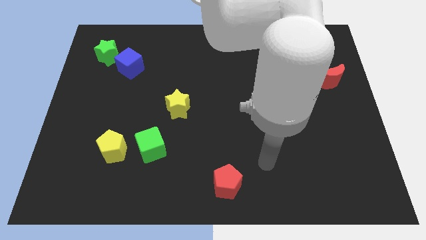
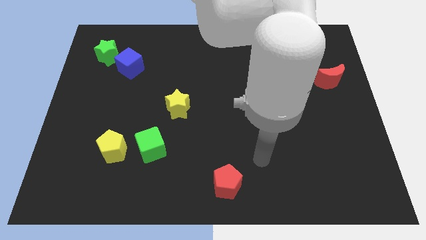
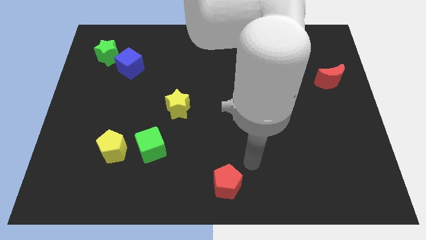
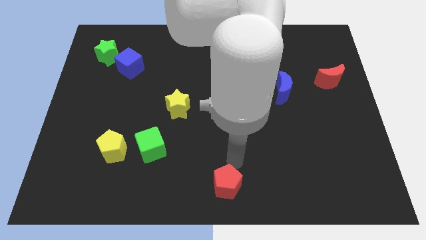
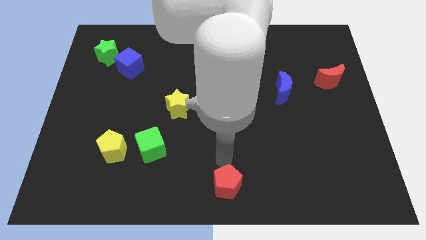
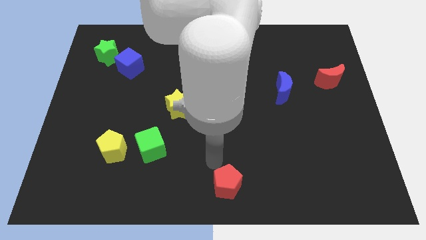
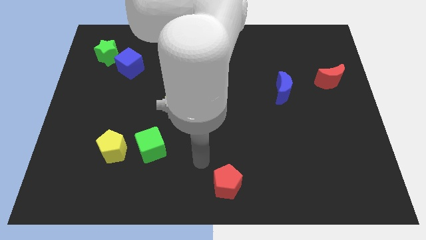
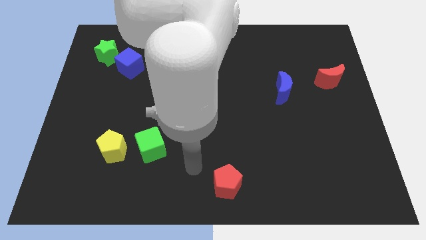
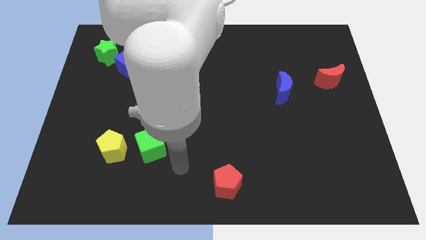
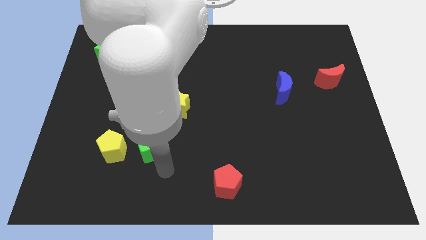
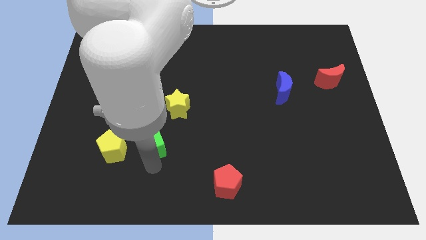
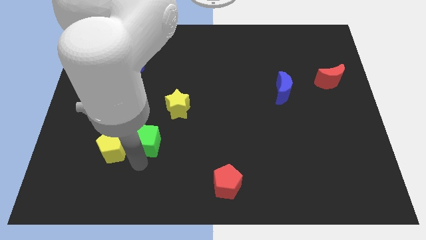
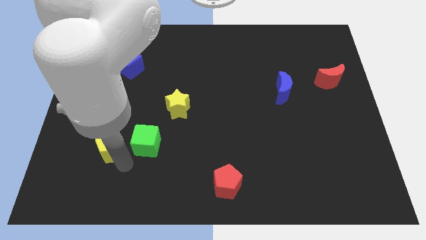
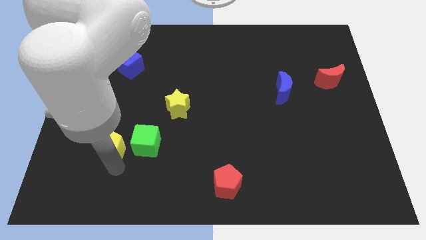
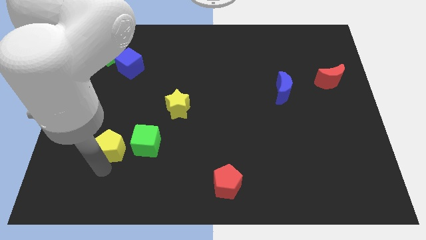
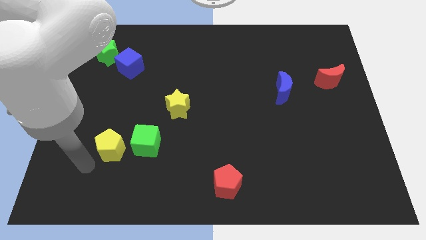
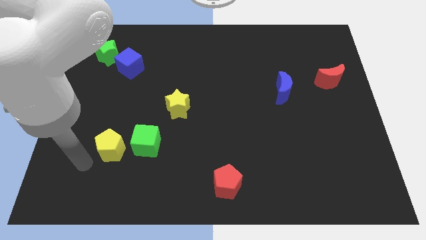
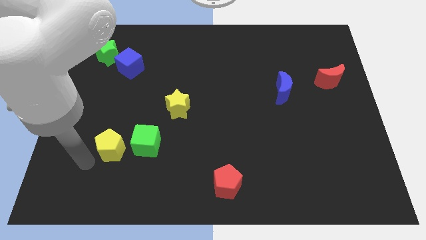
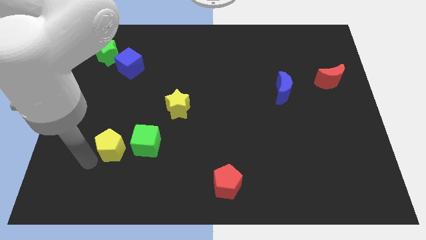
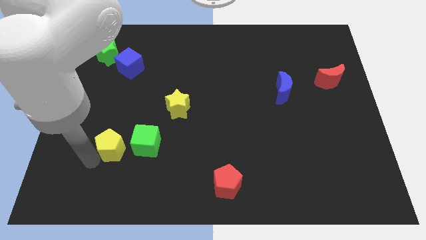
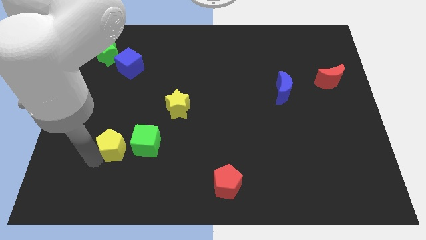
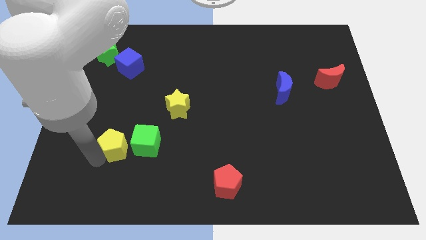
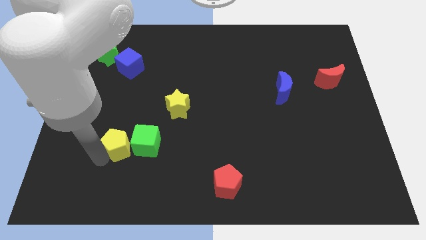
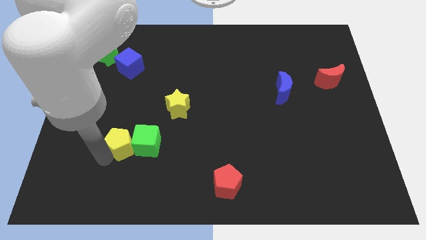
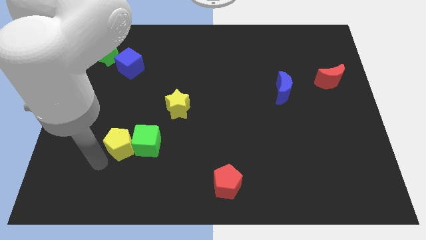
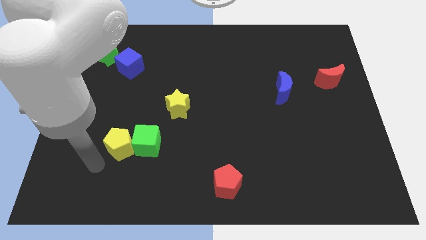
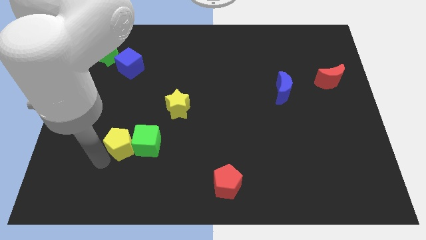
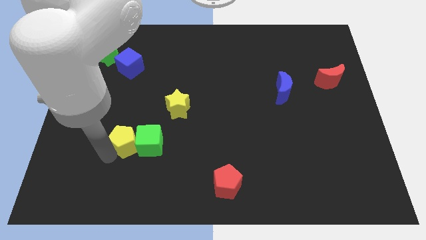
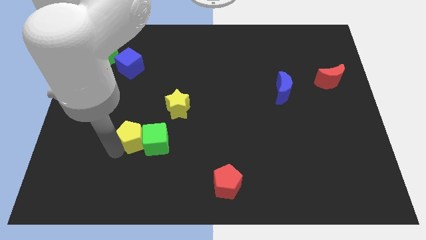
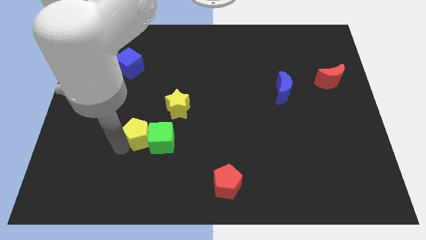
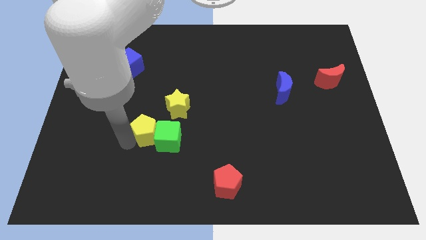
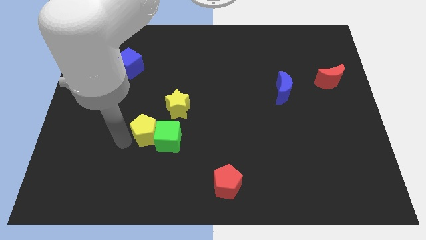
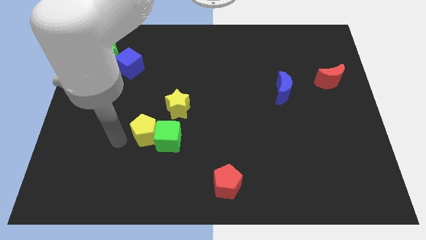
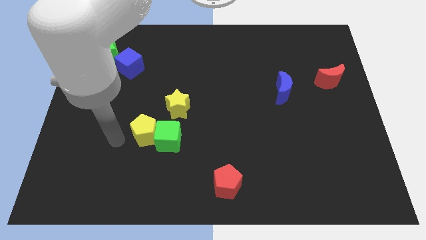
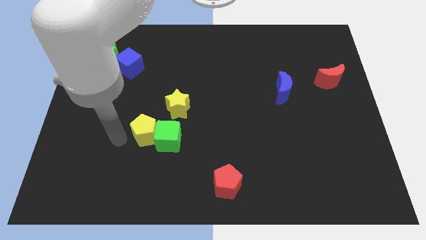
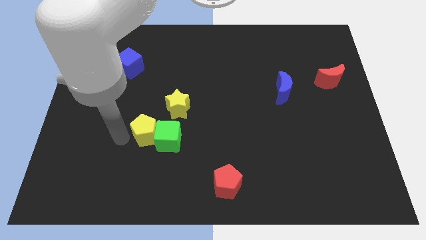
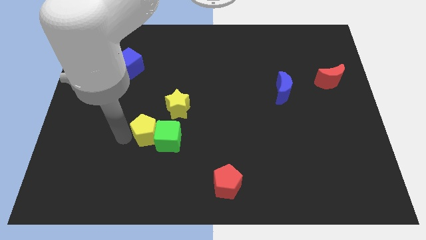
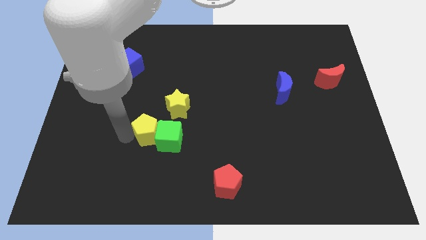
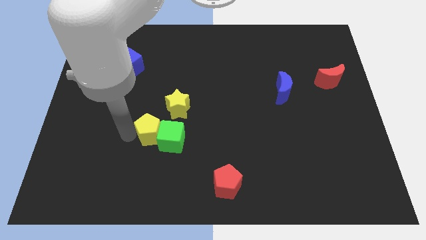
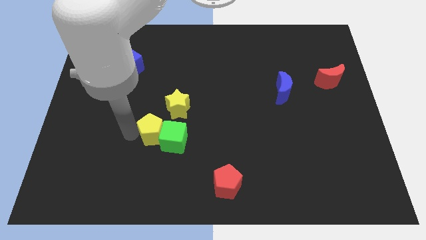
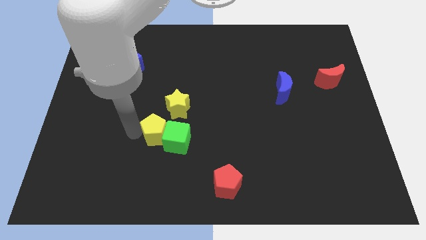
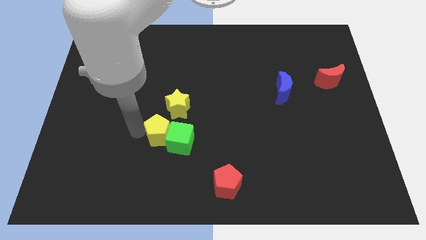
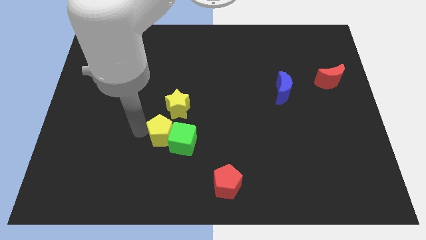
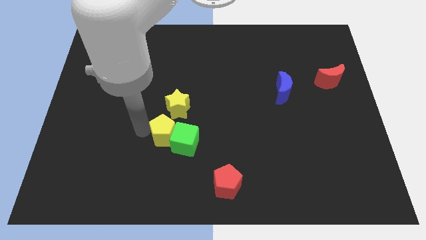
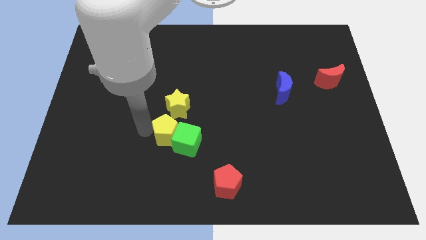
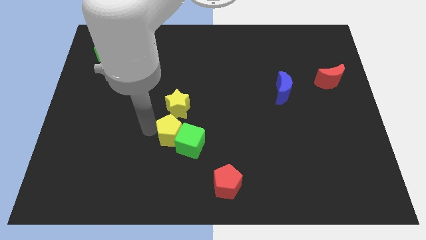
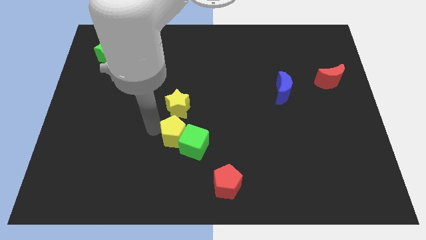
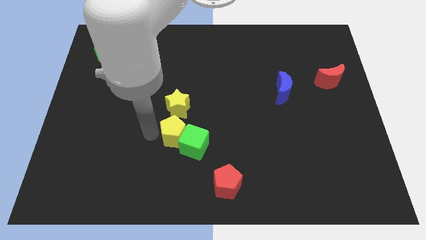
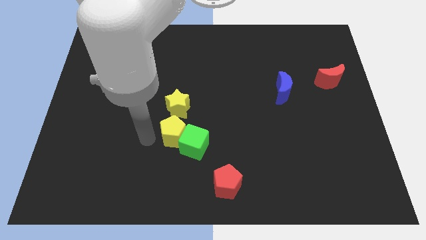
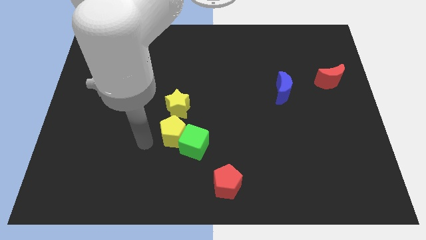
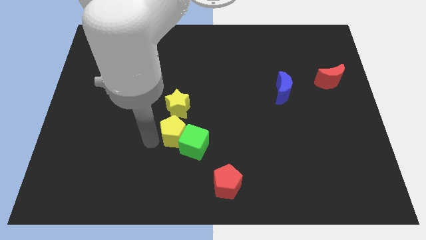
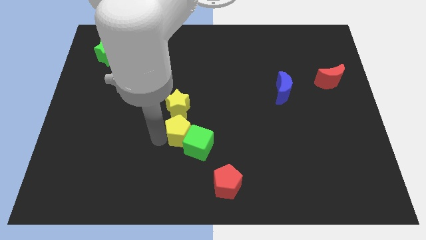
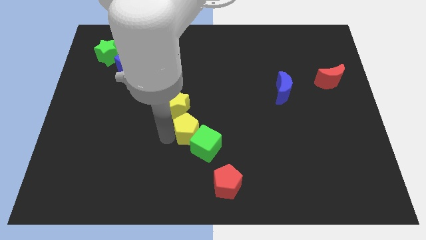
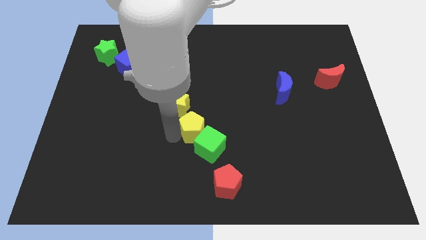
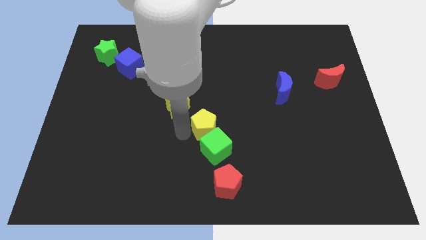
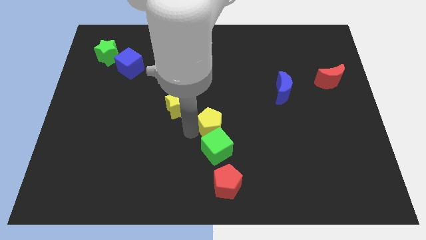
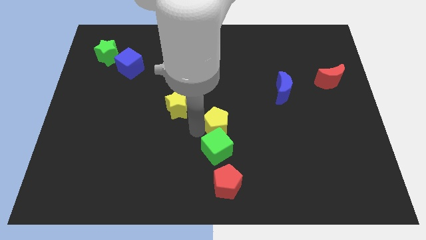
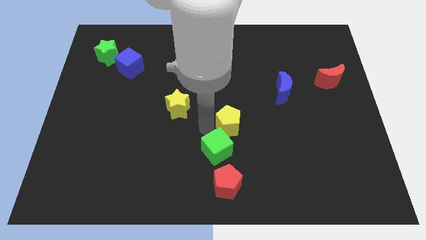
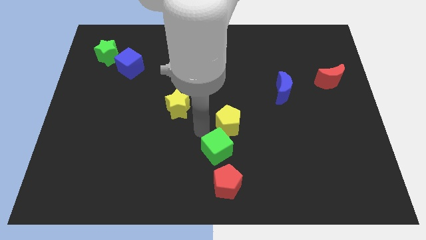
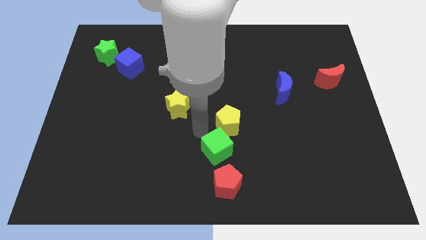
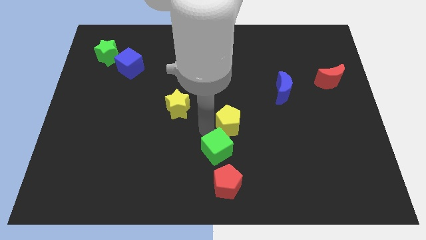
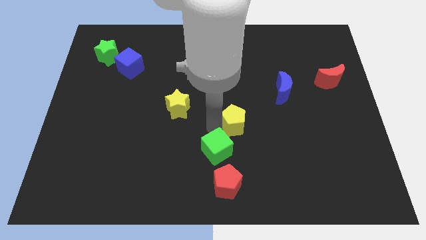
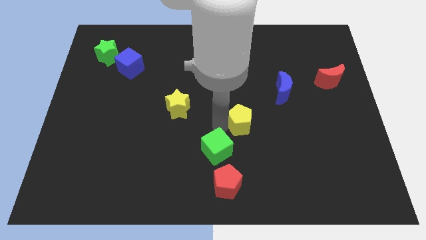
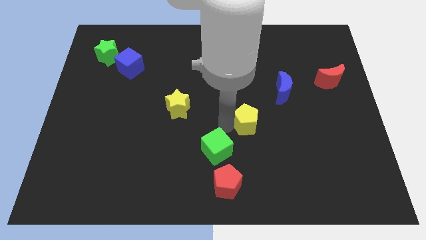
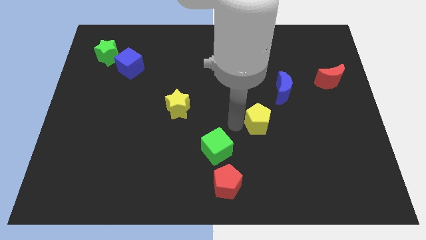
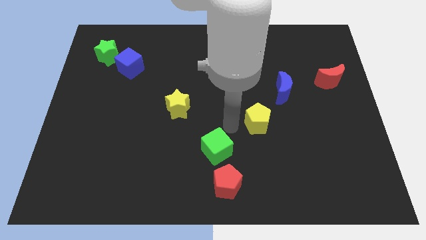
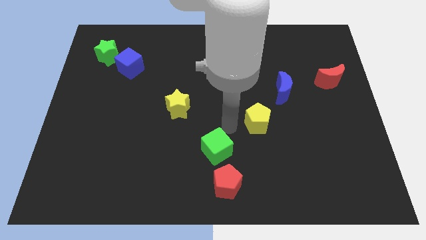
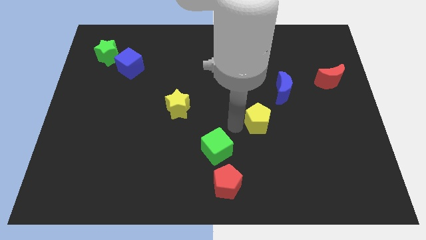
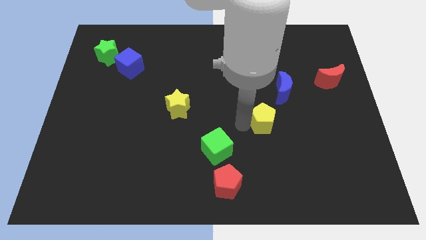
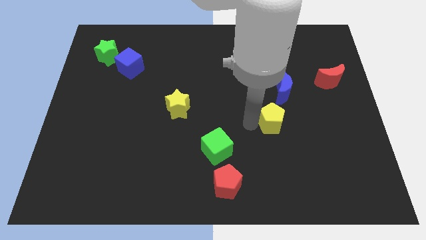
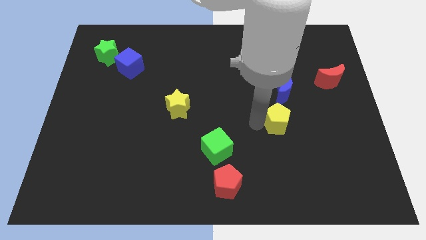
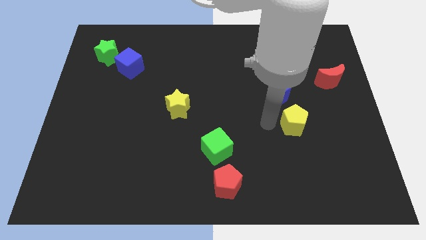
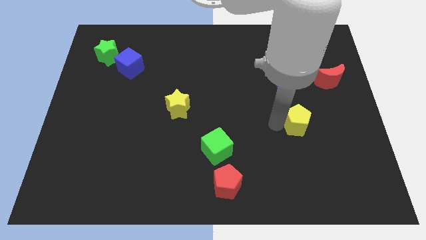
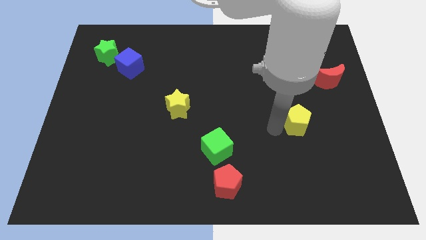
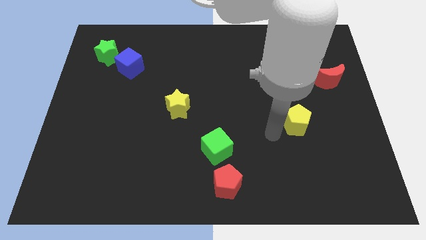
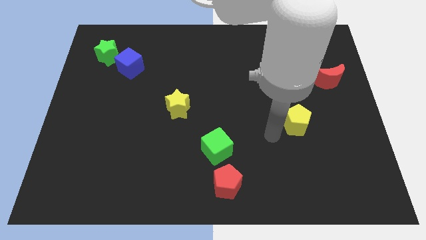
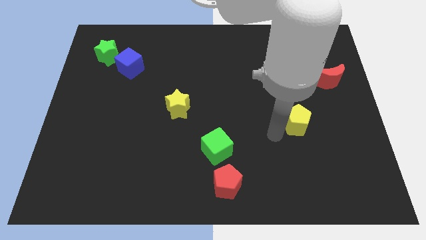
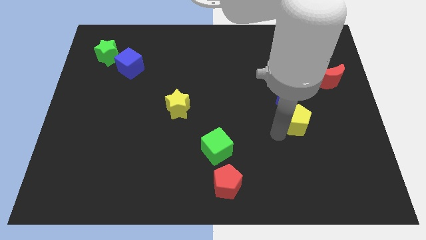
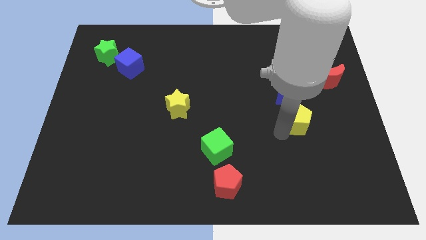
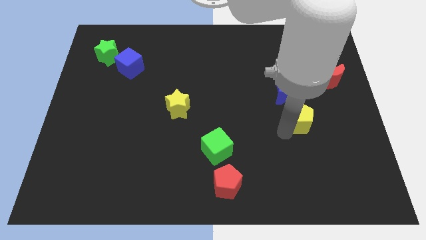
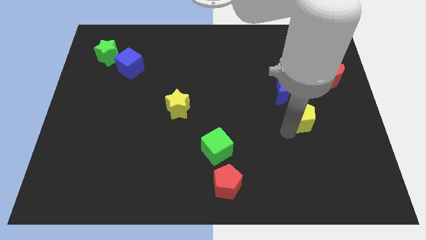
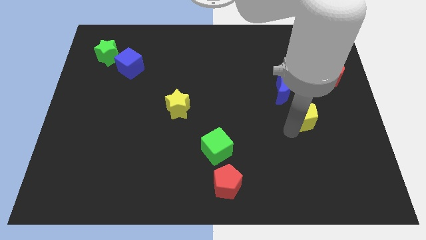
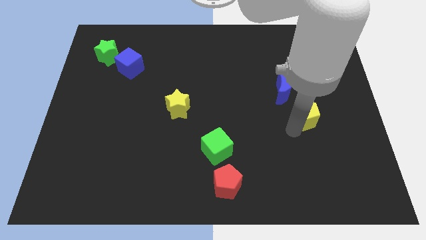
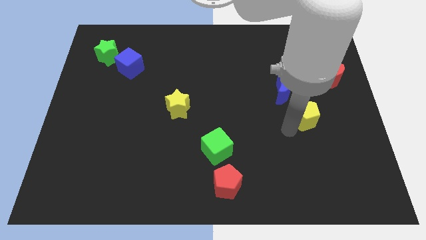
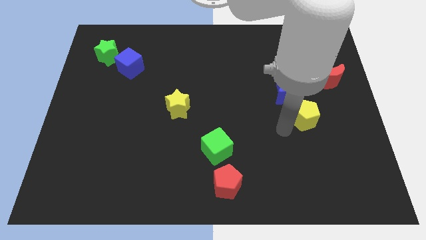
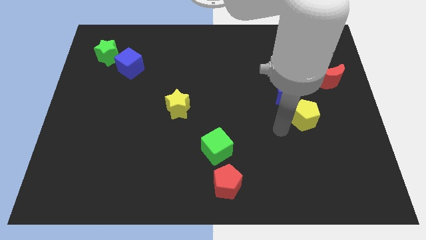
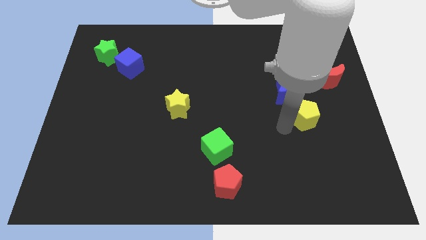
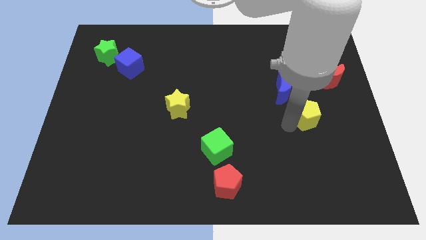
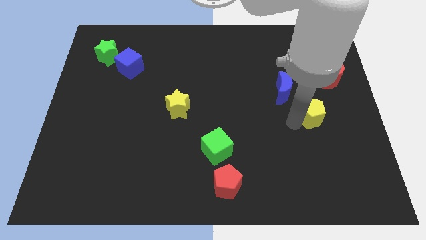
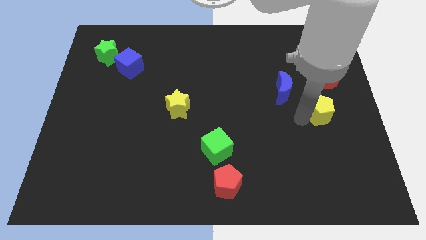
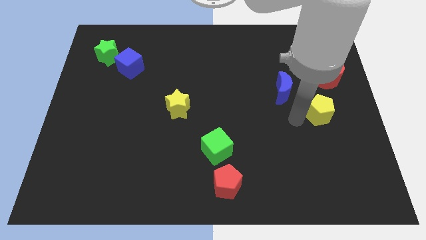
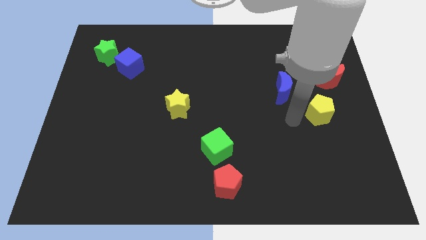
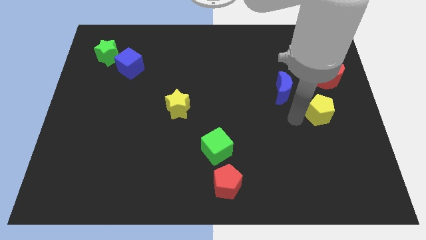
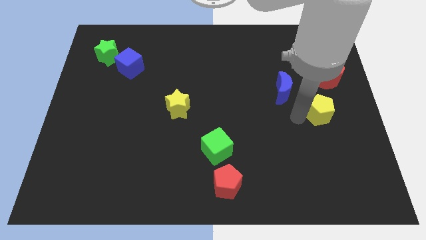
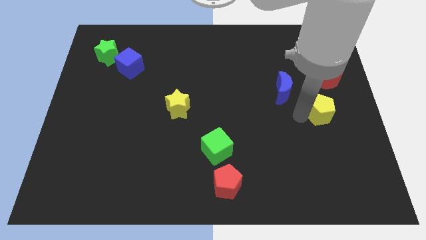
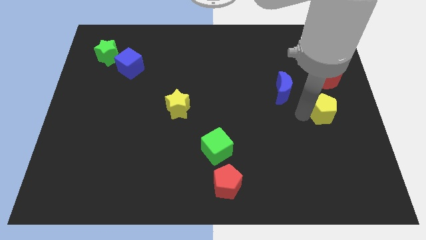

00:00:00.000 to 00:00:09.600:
put the yellow pentagon to the center right
